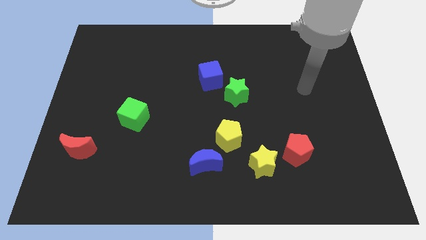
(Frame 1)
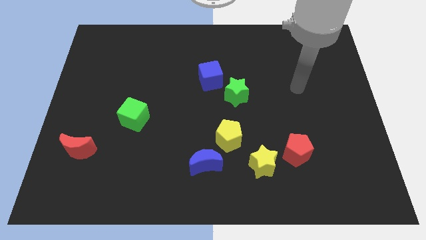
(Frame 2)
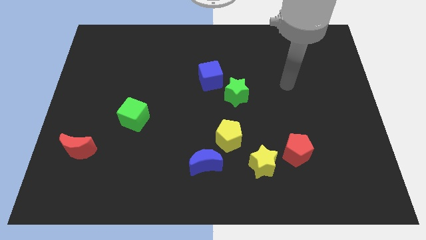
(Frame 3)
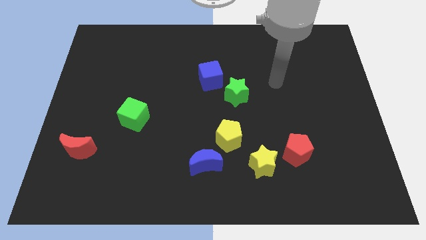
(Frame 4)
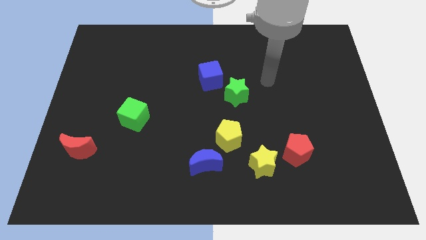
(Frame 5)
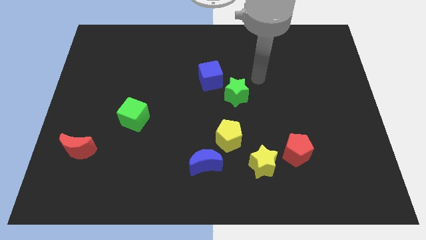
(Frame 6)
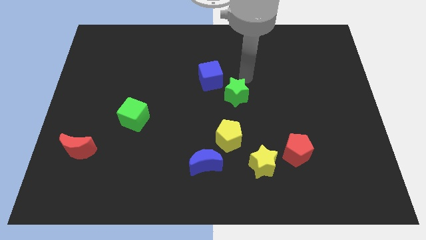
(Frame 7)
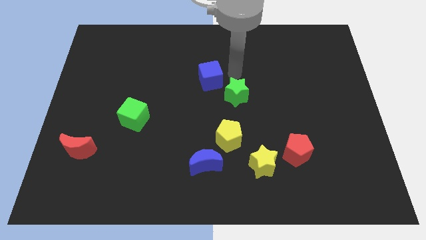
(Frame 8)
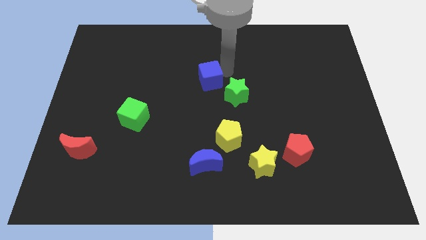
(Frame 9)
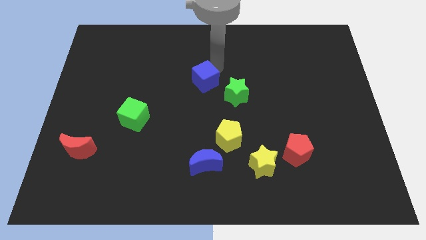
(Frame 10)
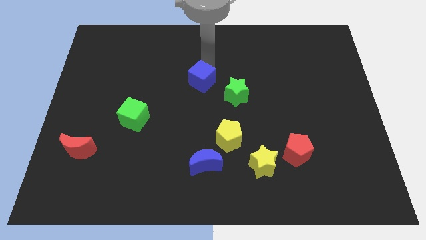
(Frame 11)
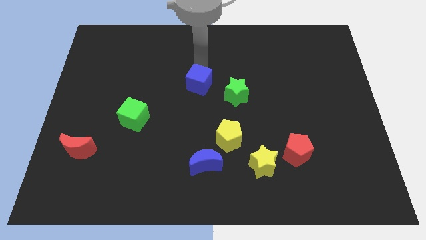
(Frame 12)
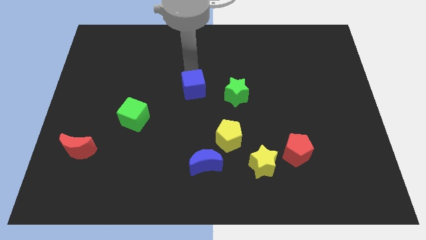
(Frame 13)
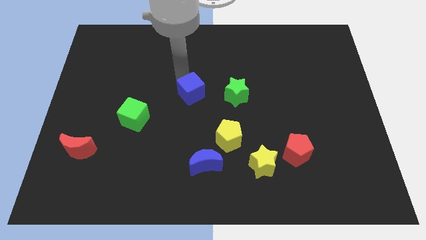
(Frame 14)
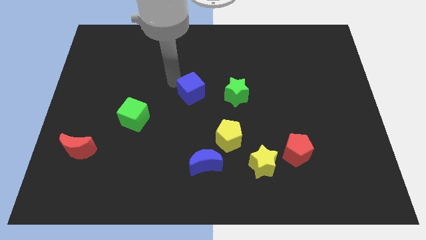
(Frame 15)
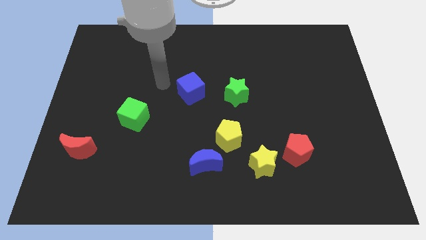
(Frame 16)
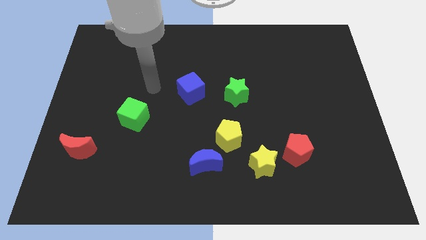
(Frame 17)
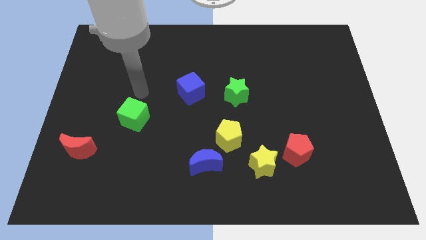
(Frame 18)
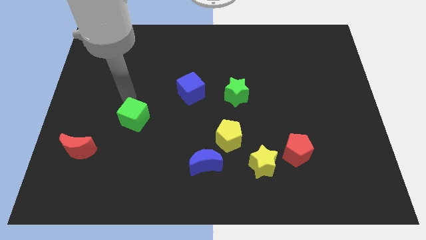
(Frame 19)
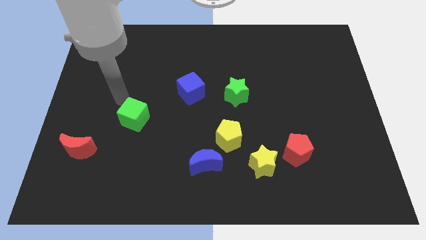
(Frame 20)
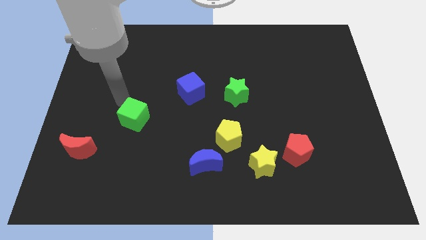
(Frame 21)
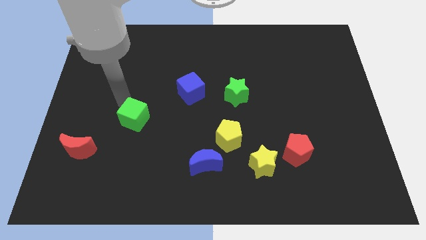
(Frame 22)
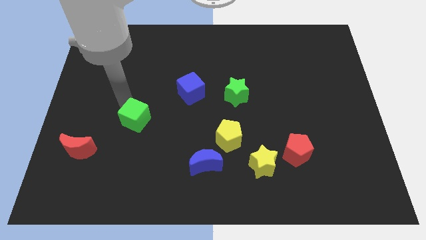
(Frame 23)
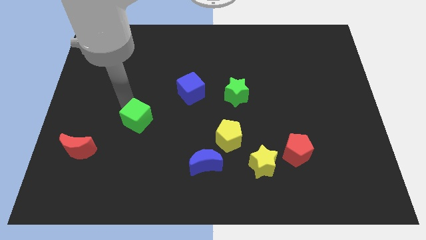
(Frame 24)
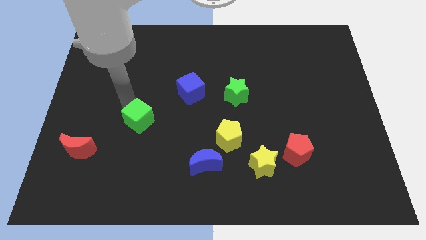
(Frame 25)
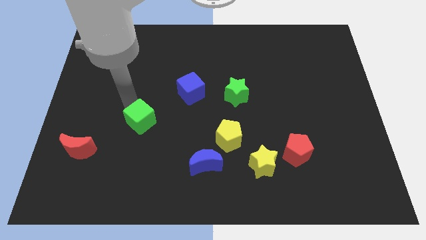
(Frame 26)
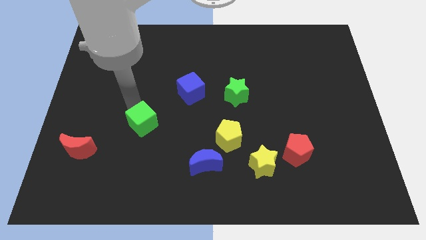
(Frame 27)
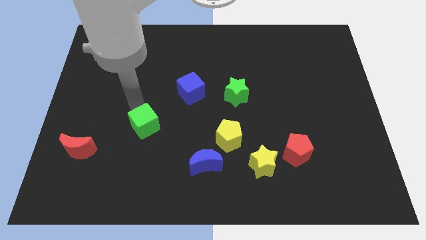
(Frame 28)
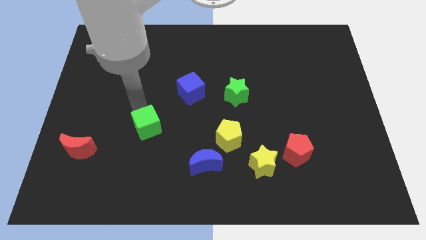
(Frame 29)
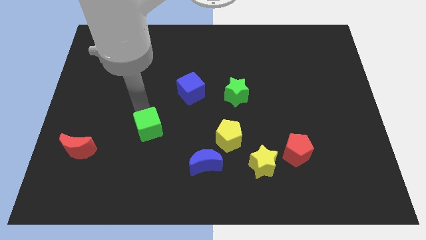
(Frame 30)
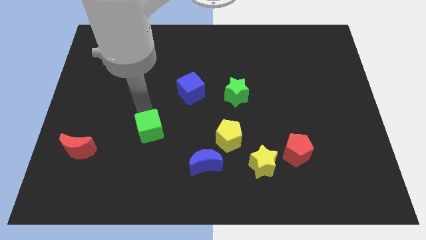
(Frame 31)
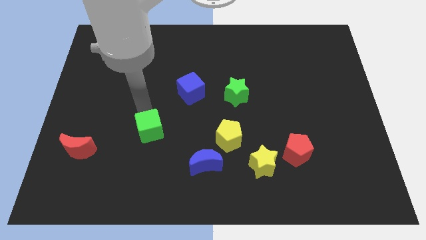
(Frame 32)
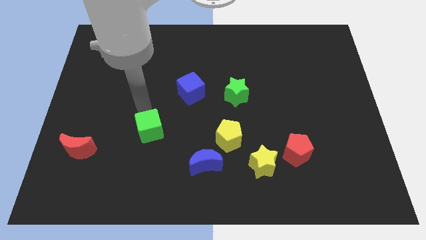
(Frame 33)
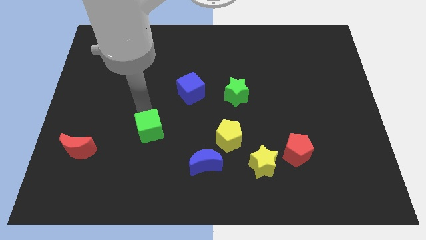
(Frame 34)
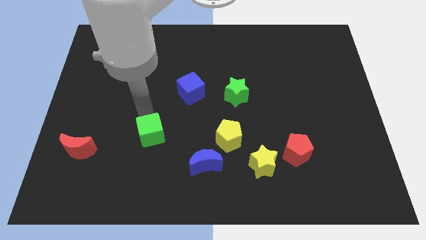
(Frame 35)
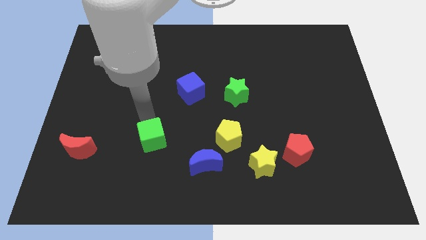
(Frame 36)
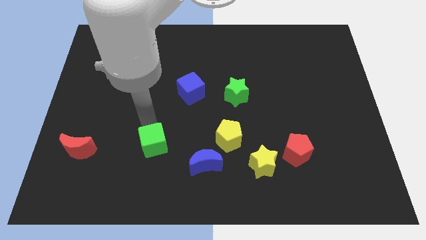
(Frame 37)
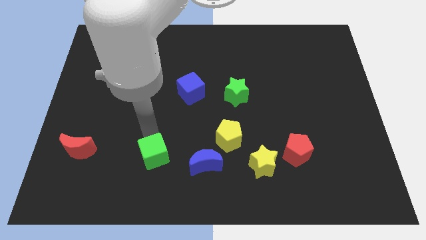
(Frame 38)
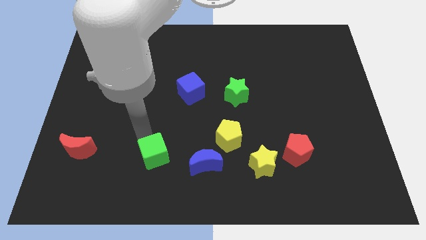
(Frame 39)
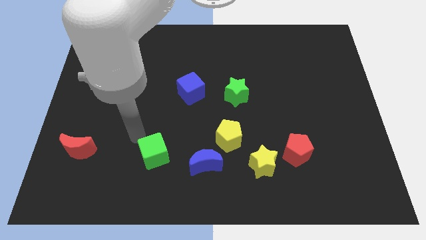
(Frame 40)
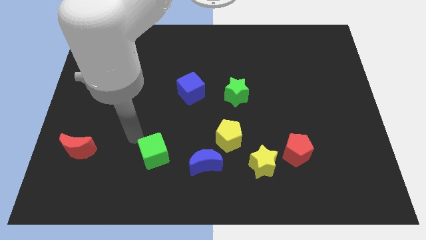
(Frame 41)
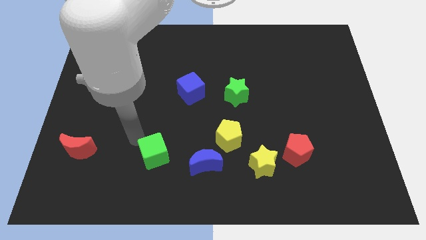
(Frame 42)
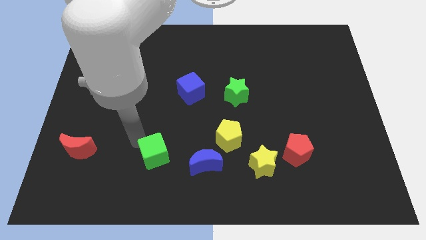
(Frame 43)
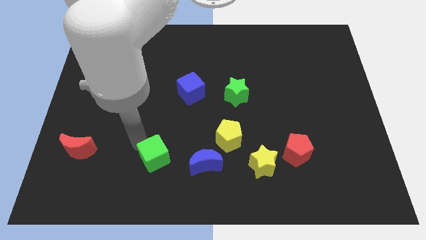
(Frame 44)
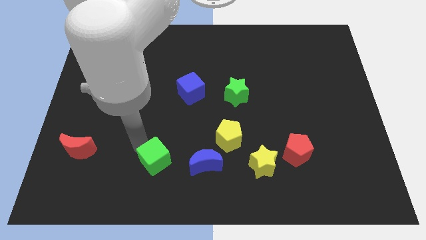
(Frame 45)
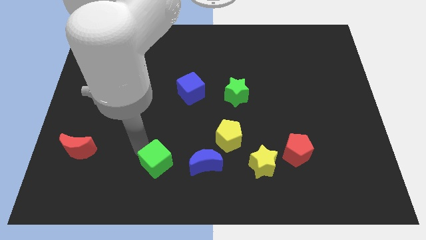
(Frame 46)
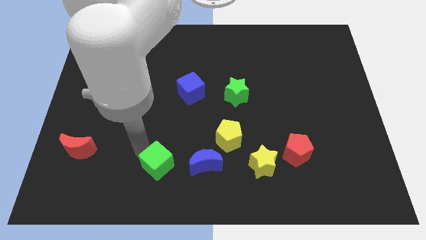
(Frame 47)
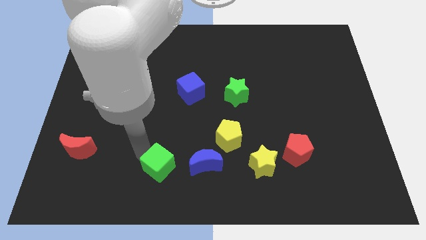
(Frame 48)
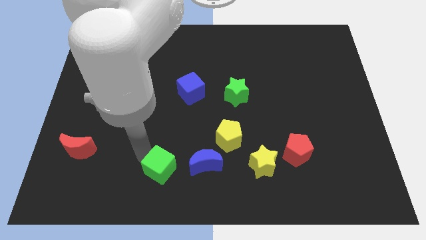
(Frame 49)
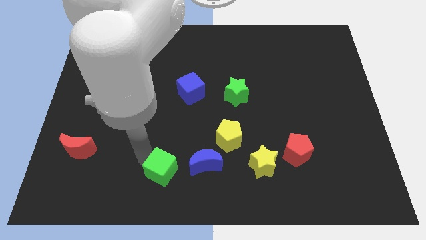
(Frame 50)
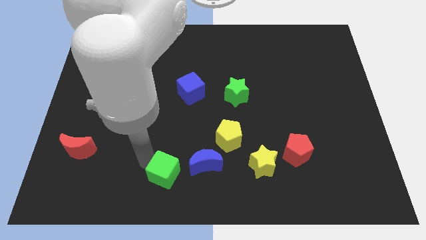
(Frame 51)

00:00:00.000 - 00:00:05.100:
push the green cube to the bottom

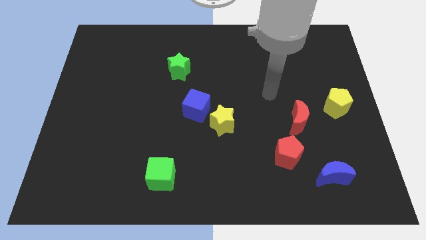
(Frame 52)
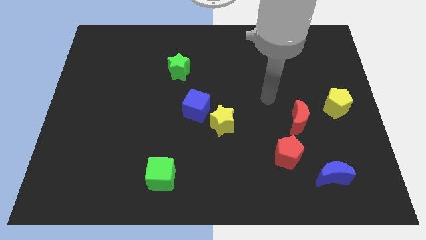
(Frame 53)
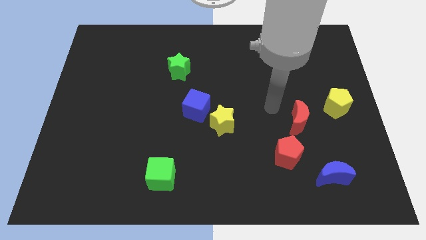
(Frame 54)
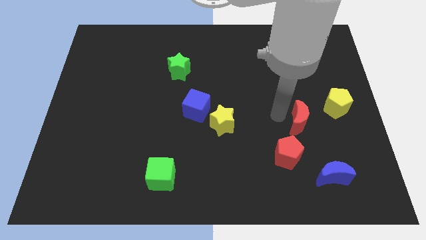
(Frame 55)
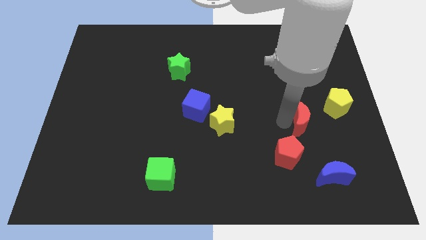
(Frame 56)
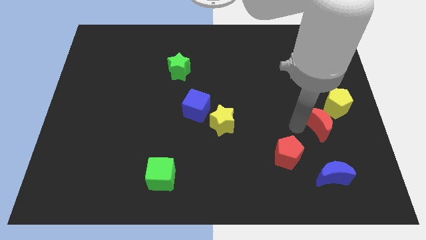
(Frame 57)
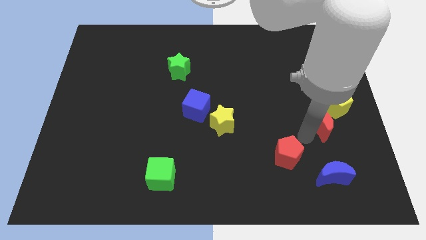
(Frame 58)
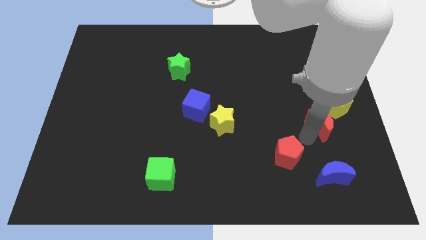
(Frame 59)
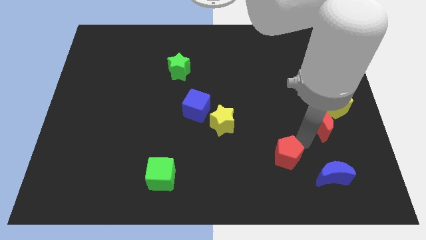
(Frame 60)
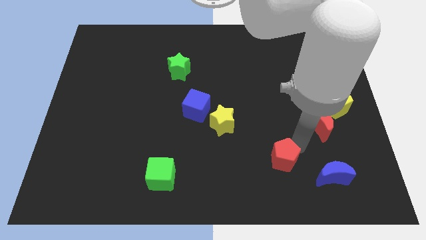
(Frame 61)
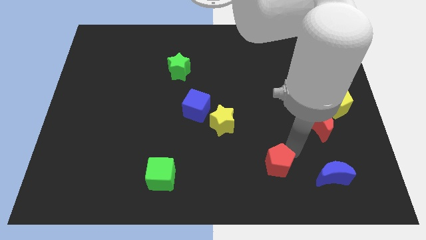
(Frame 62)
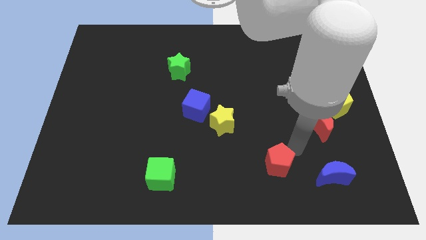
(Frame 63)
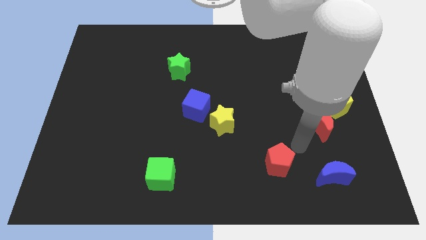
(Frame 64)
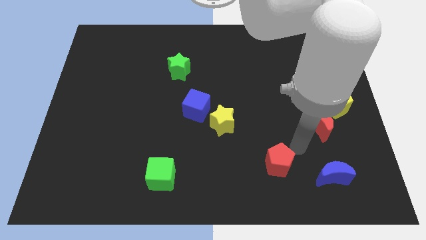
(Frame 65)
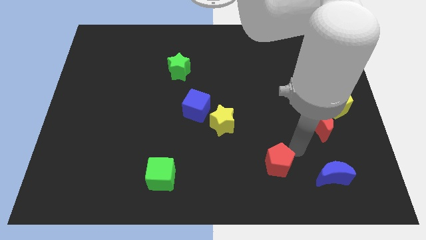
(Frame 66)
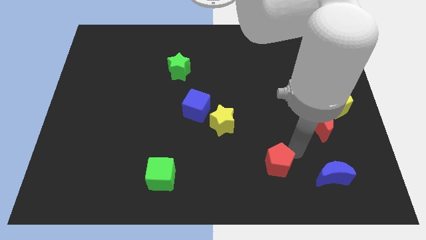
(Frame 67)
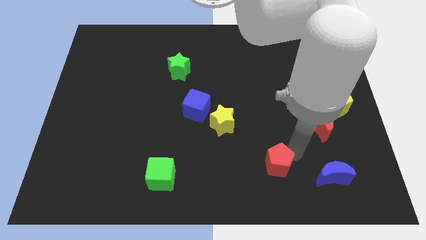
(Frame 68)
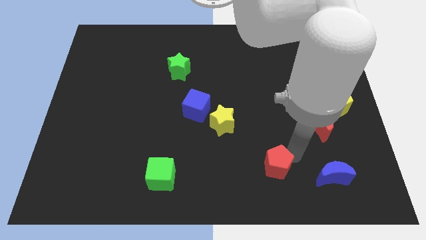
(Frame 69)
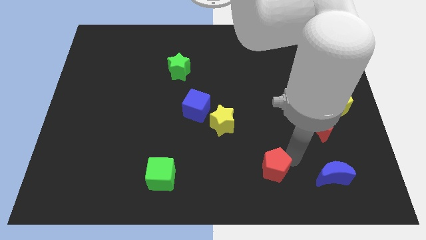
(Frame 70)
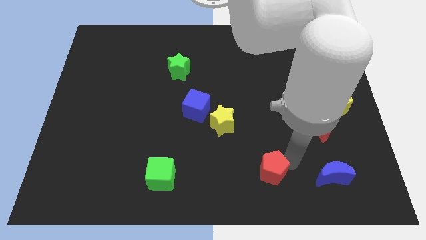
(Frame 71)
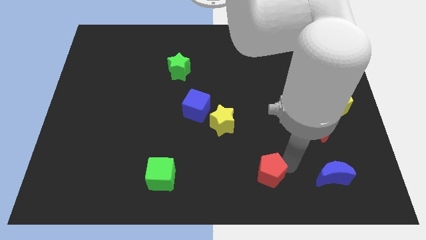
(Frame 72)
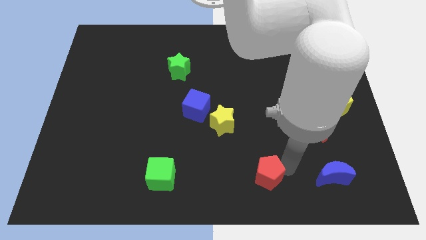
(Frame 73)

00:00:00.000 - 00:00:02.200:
push the red pentagon to the bottom
